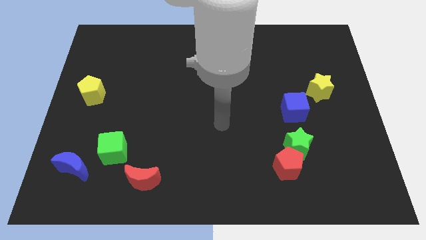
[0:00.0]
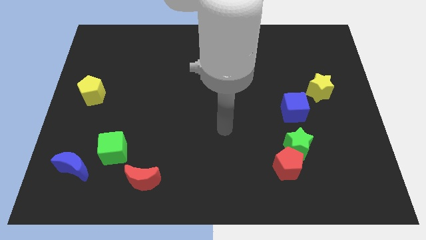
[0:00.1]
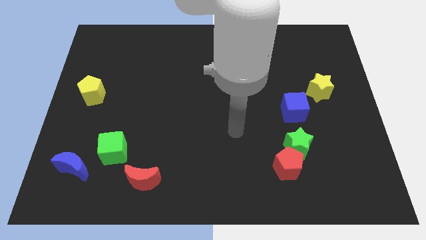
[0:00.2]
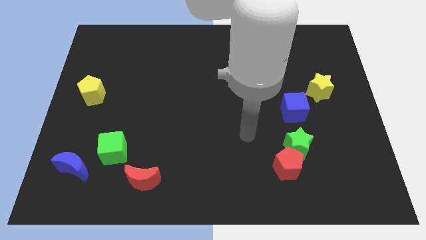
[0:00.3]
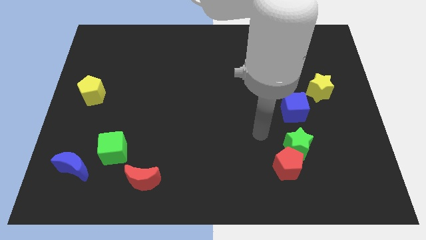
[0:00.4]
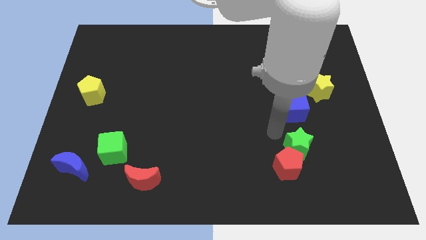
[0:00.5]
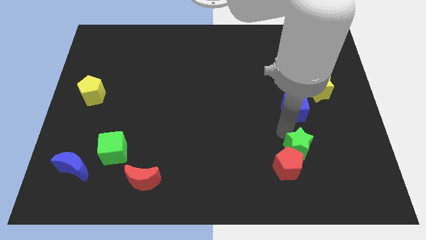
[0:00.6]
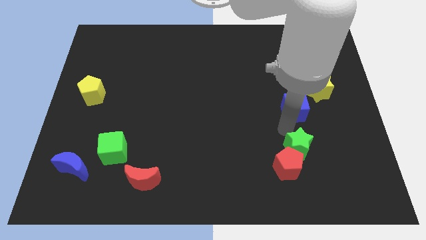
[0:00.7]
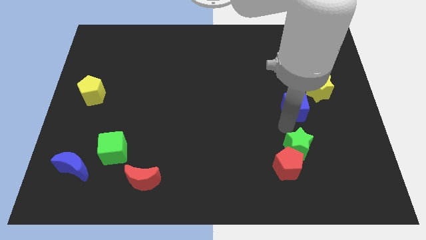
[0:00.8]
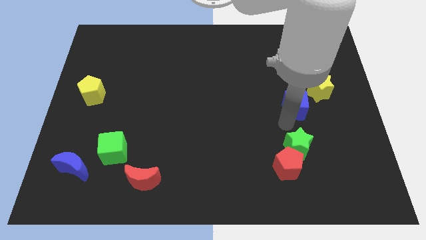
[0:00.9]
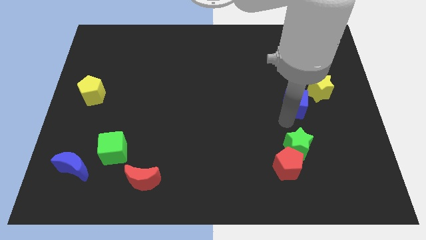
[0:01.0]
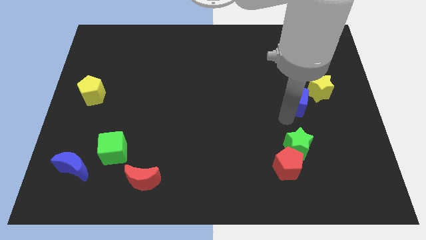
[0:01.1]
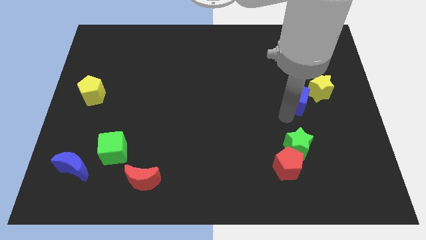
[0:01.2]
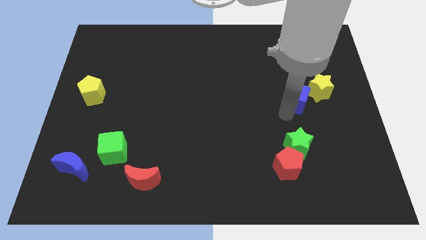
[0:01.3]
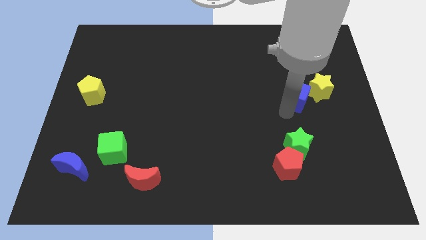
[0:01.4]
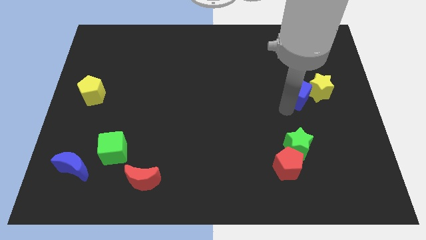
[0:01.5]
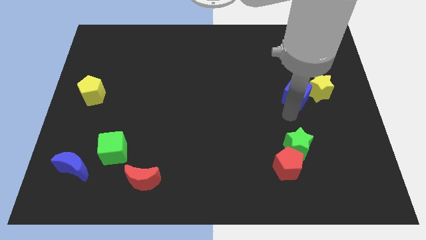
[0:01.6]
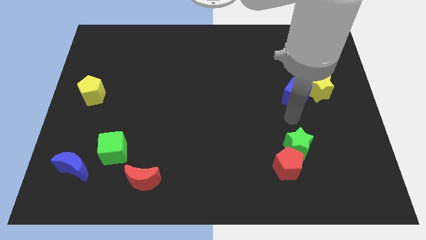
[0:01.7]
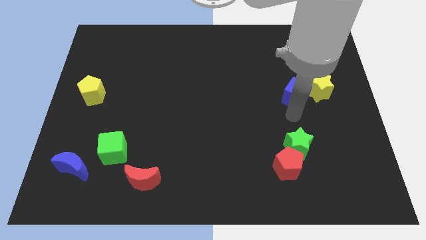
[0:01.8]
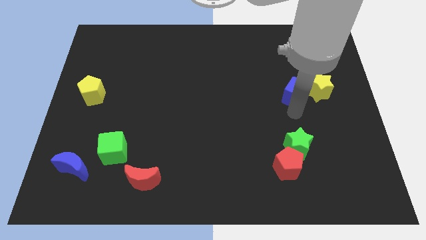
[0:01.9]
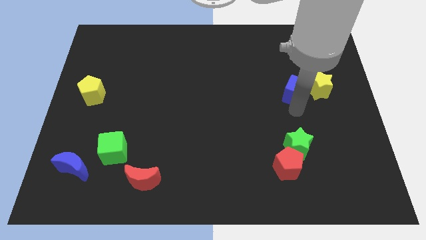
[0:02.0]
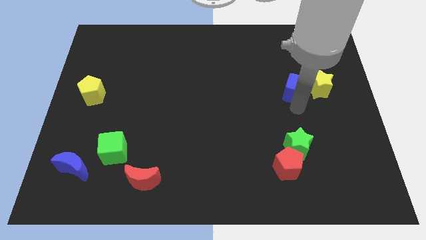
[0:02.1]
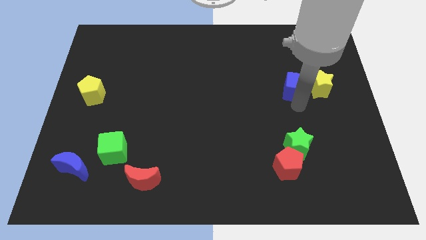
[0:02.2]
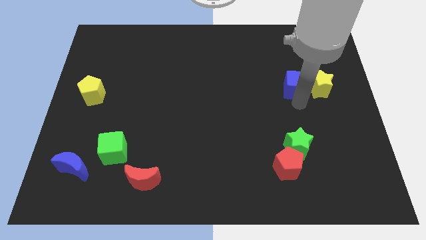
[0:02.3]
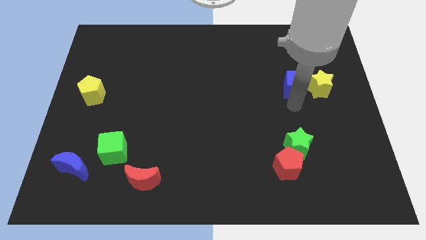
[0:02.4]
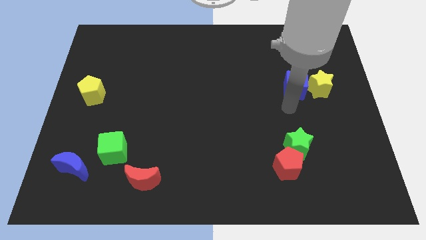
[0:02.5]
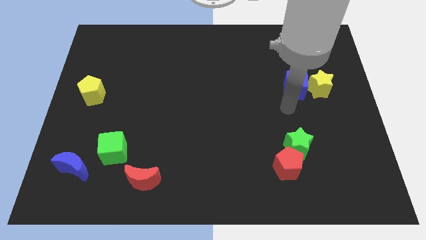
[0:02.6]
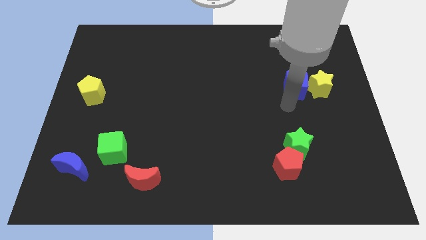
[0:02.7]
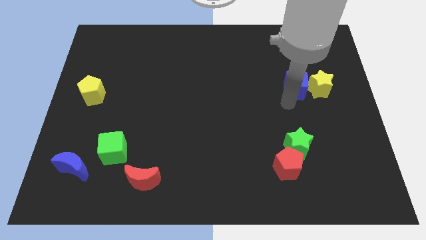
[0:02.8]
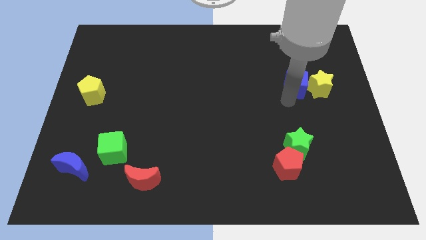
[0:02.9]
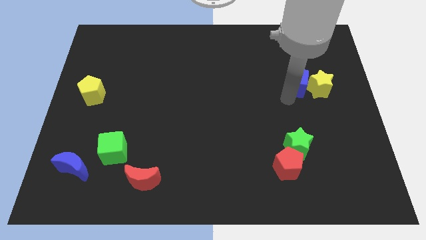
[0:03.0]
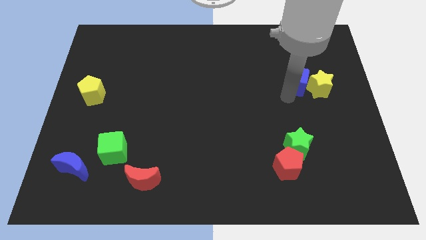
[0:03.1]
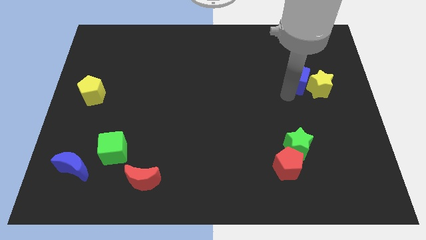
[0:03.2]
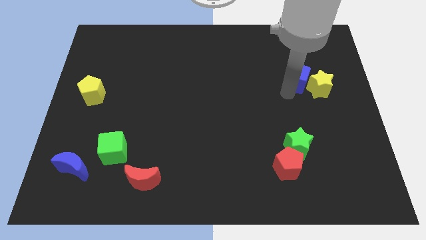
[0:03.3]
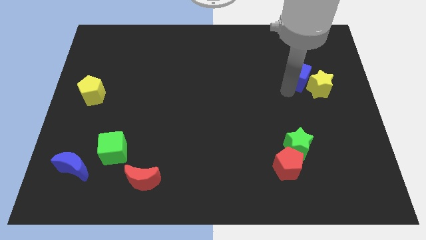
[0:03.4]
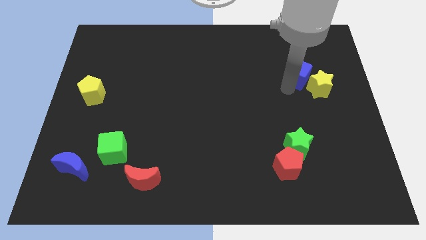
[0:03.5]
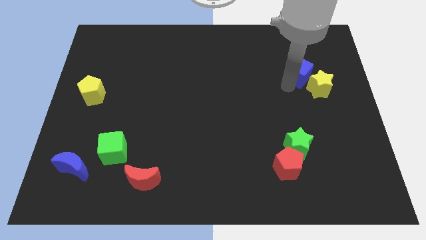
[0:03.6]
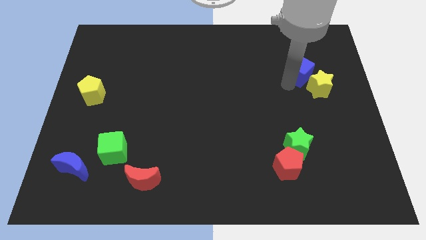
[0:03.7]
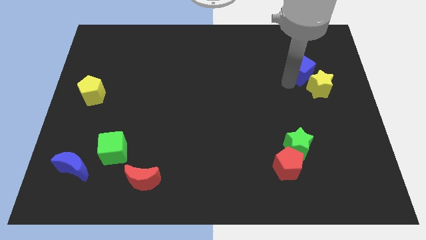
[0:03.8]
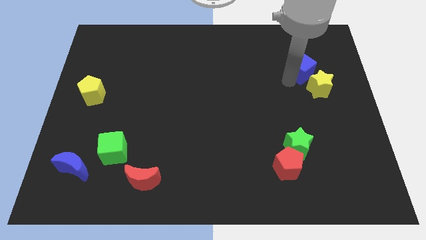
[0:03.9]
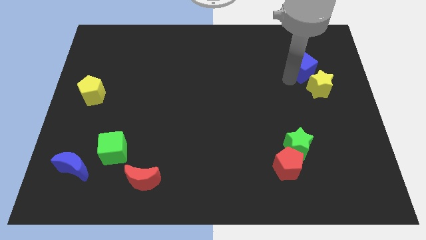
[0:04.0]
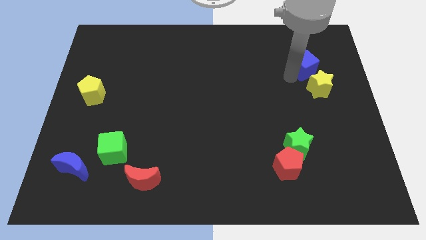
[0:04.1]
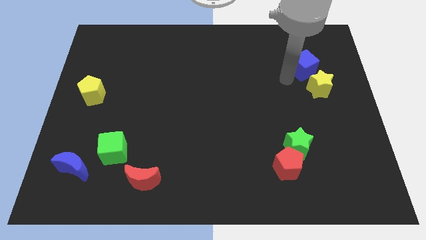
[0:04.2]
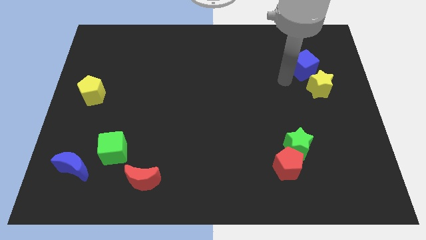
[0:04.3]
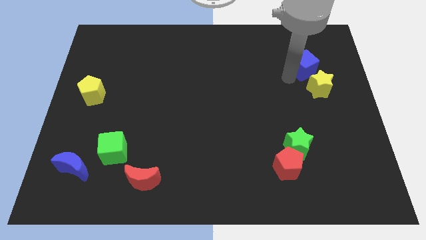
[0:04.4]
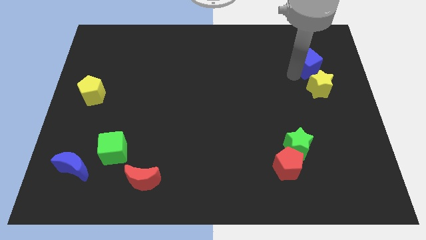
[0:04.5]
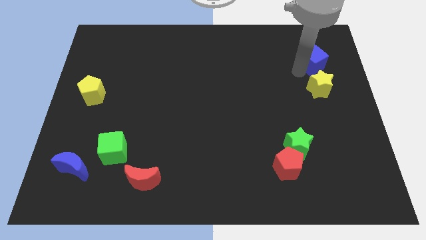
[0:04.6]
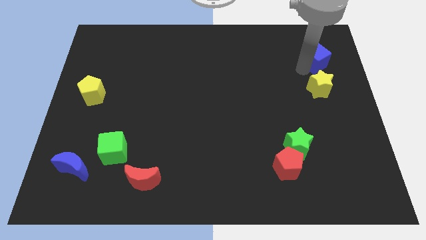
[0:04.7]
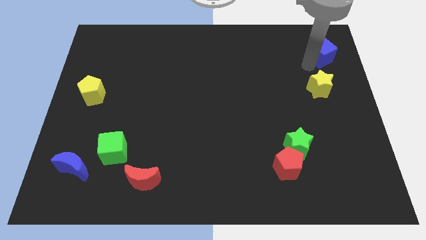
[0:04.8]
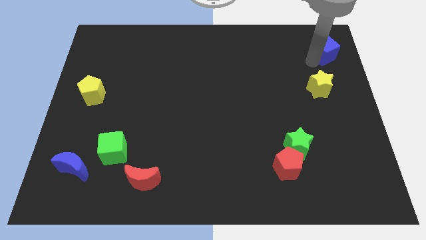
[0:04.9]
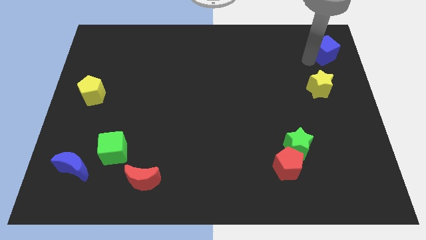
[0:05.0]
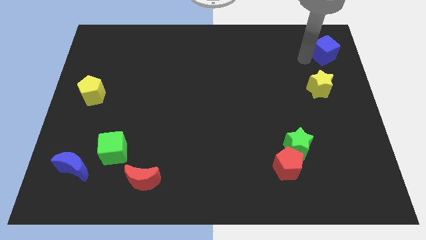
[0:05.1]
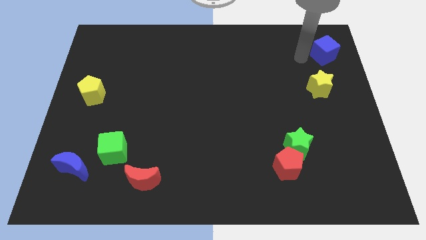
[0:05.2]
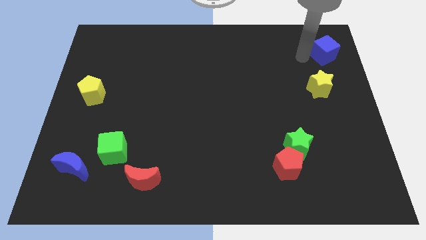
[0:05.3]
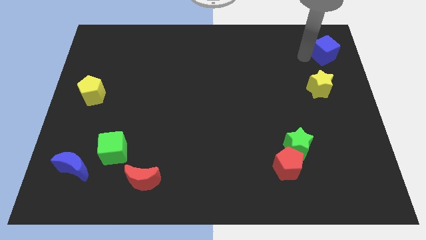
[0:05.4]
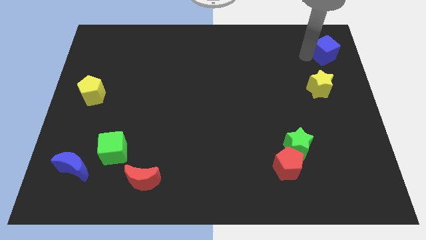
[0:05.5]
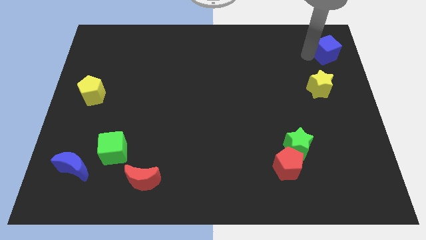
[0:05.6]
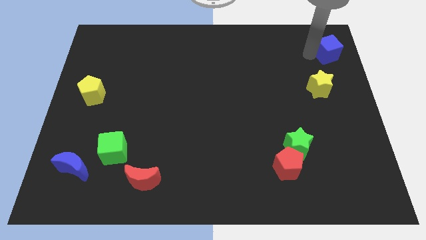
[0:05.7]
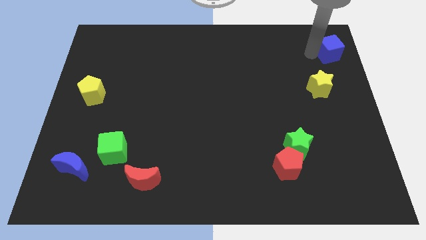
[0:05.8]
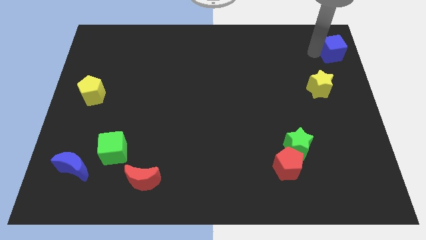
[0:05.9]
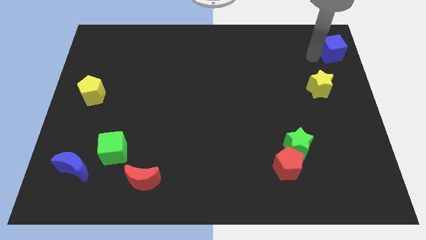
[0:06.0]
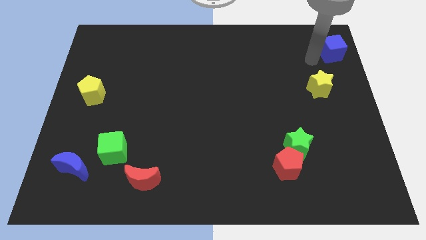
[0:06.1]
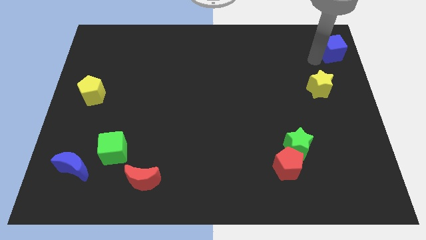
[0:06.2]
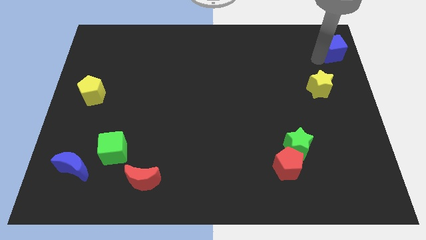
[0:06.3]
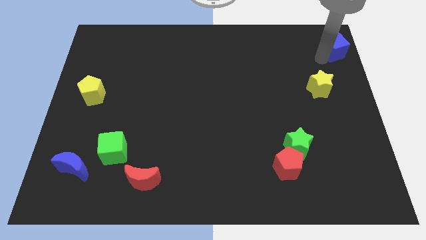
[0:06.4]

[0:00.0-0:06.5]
push the blue cube to the upper right corner
